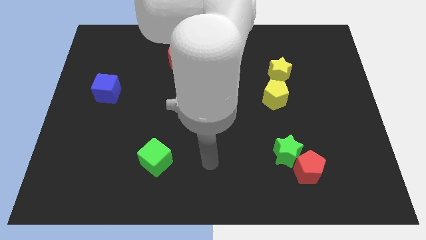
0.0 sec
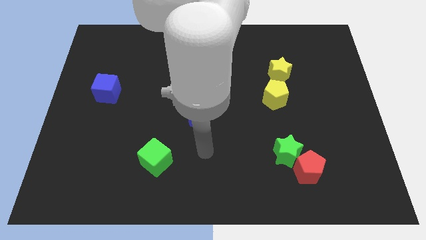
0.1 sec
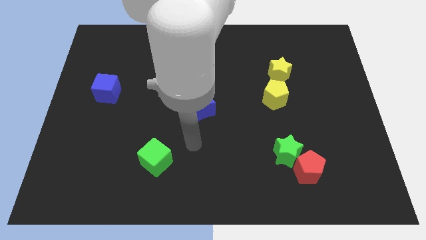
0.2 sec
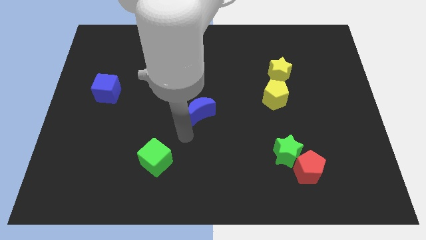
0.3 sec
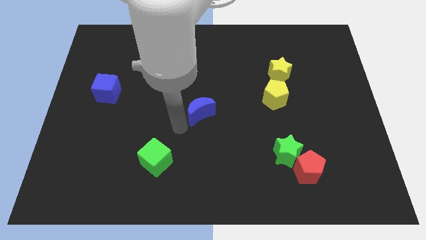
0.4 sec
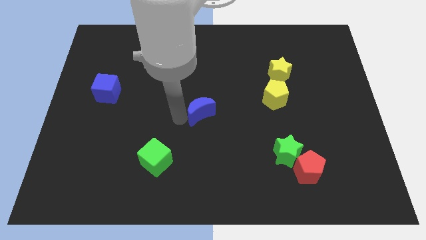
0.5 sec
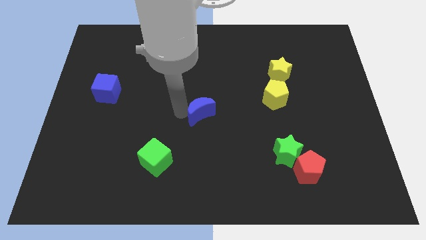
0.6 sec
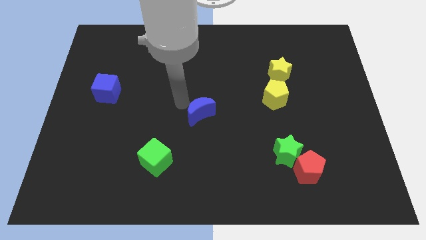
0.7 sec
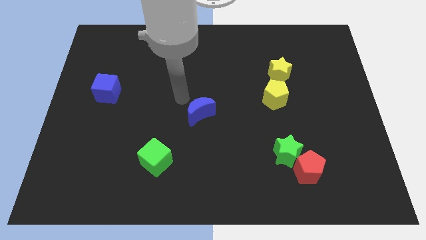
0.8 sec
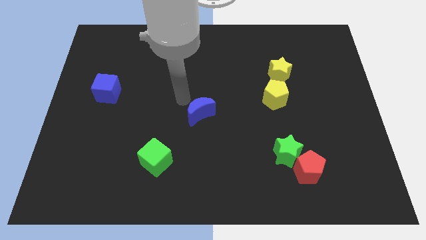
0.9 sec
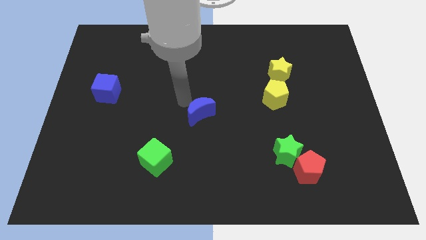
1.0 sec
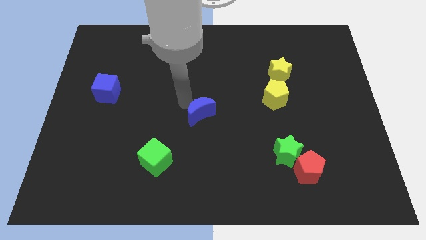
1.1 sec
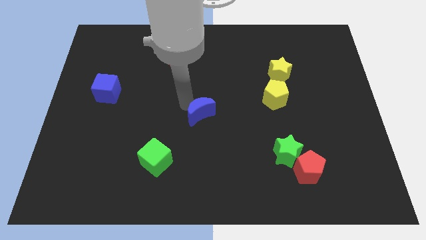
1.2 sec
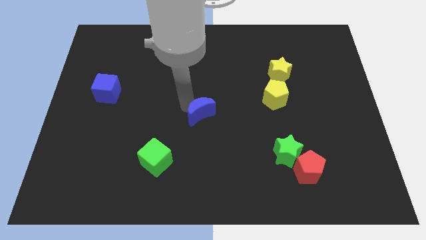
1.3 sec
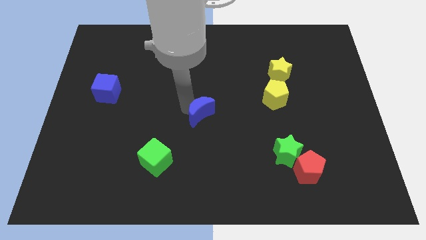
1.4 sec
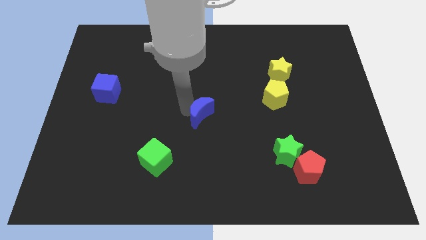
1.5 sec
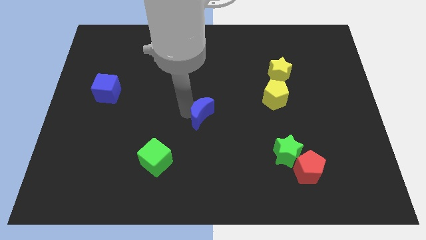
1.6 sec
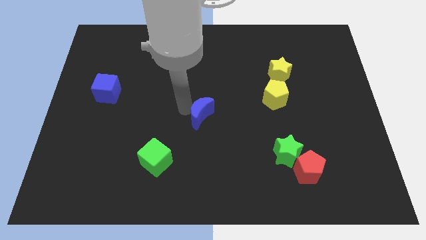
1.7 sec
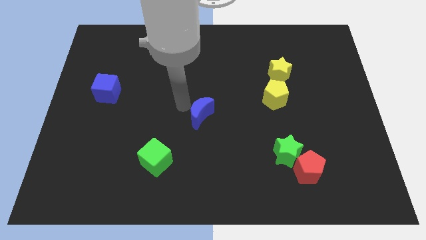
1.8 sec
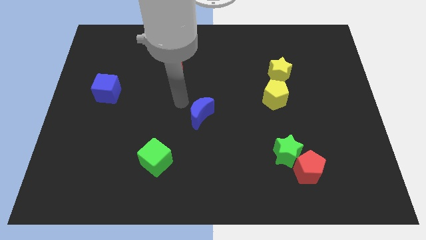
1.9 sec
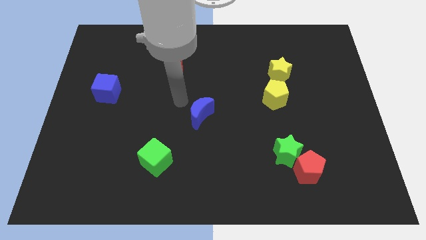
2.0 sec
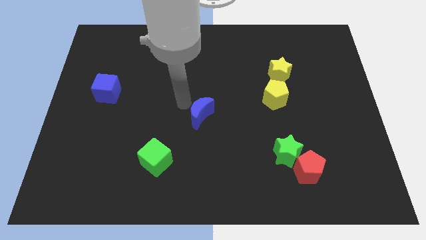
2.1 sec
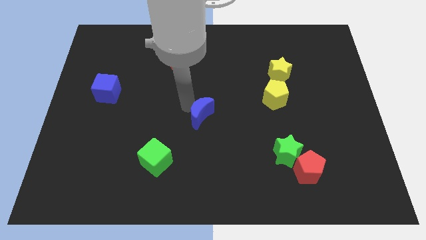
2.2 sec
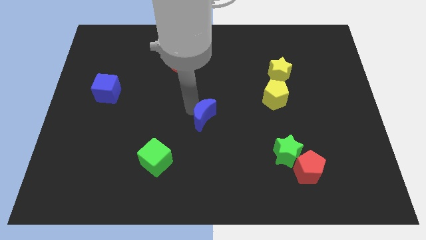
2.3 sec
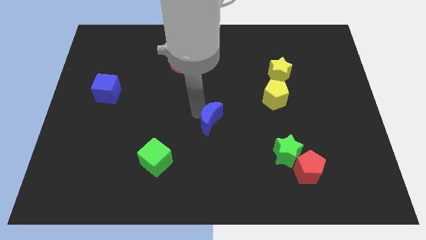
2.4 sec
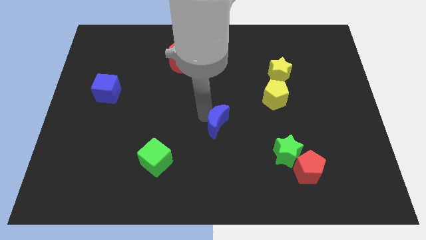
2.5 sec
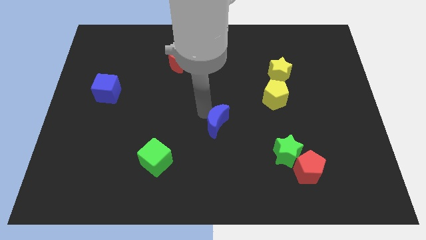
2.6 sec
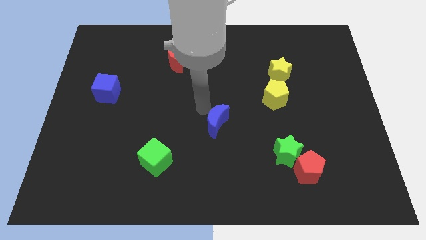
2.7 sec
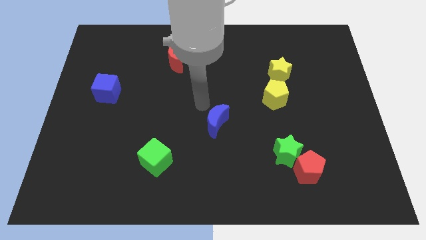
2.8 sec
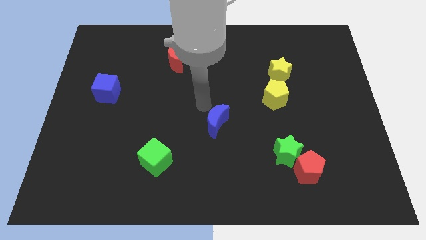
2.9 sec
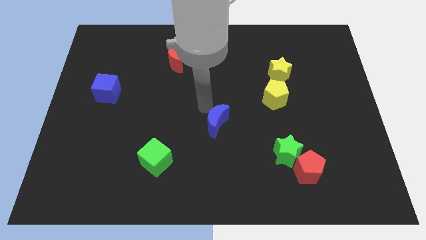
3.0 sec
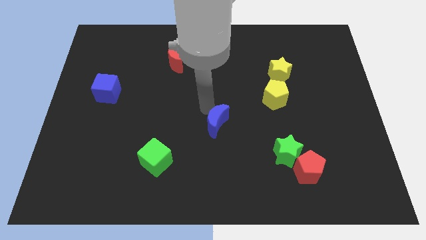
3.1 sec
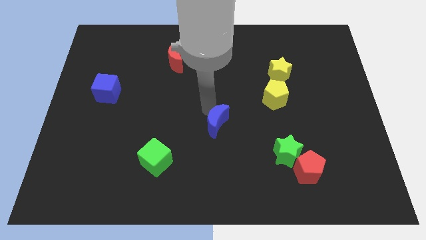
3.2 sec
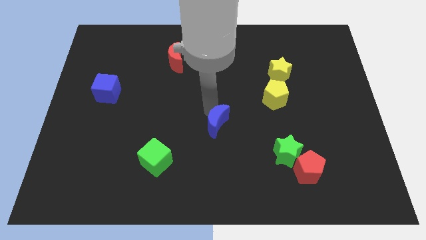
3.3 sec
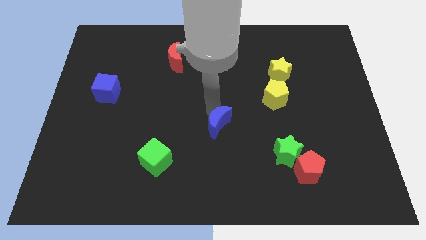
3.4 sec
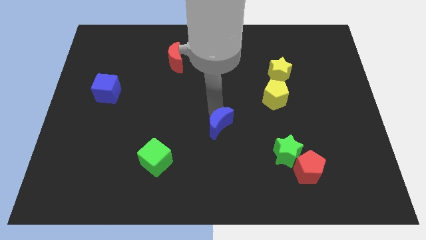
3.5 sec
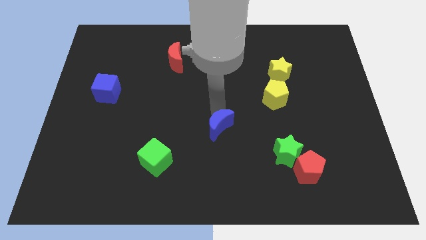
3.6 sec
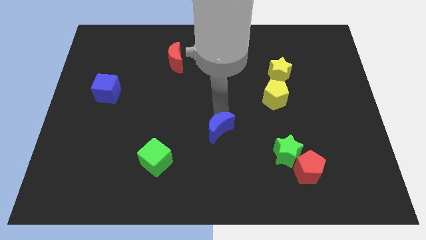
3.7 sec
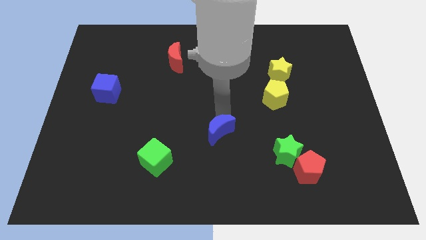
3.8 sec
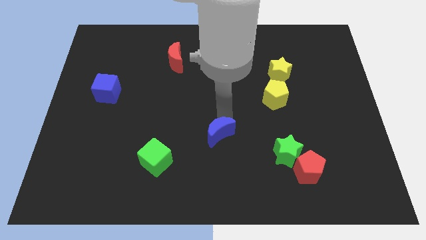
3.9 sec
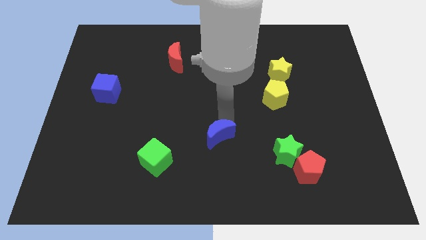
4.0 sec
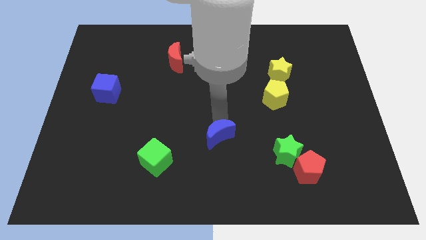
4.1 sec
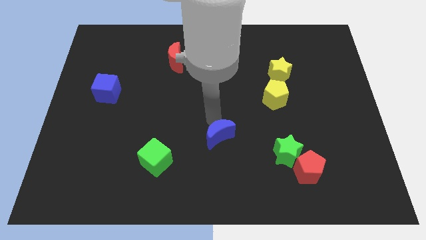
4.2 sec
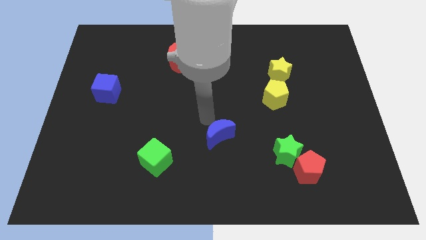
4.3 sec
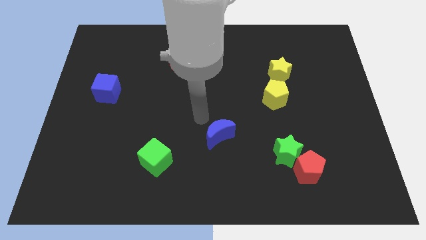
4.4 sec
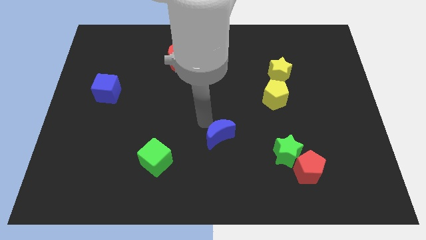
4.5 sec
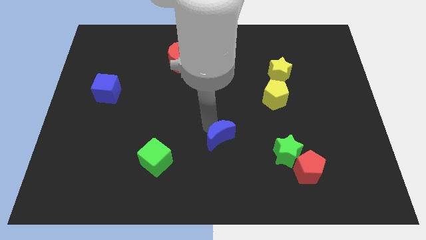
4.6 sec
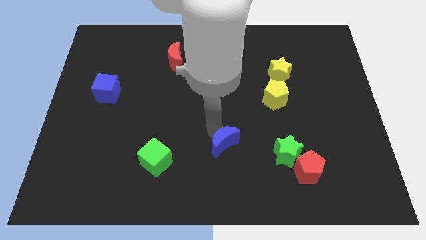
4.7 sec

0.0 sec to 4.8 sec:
move the blue moon to the left side of the green star

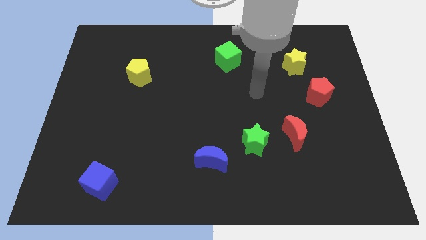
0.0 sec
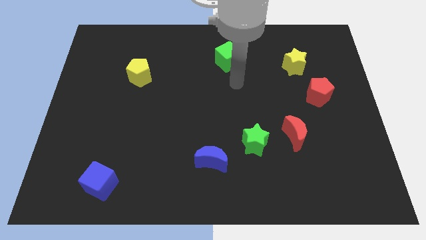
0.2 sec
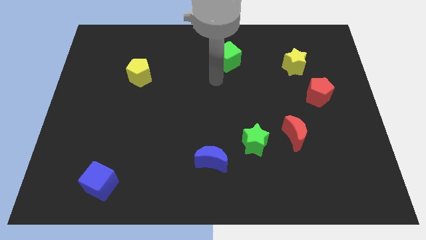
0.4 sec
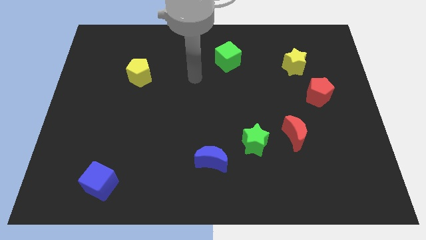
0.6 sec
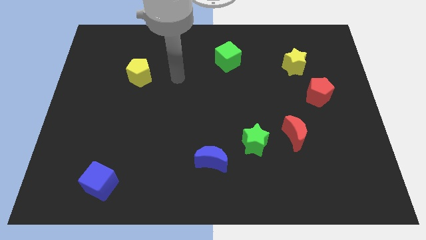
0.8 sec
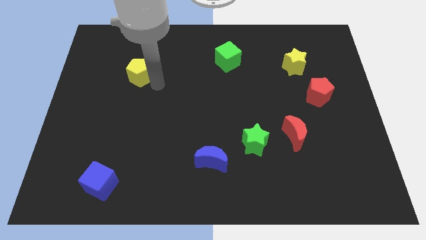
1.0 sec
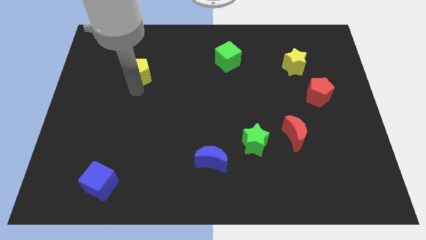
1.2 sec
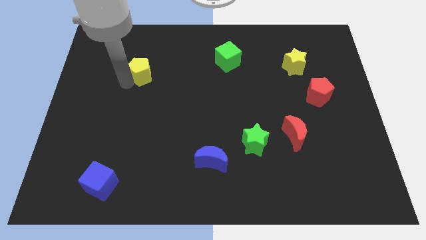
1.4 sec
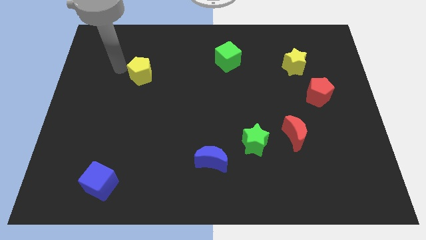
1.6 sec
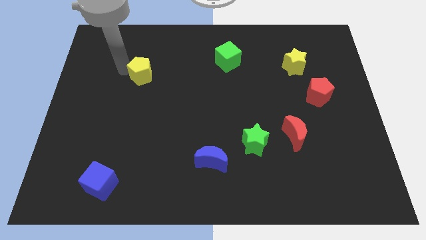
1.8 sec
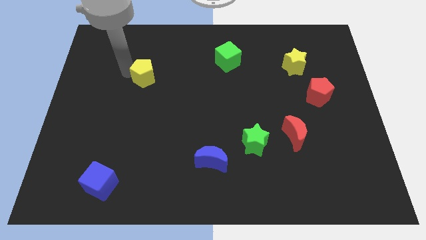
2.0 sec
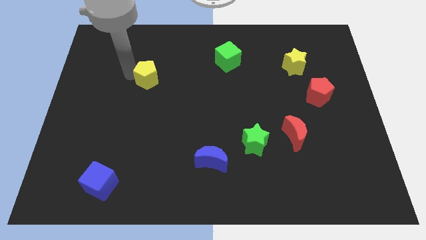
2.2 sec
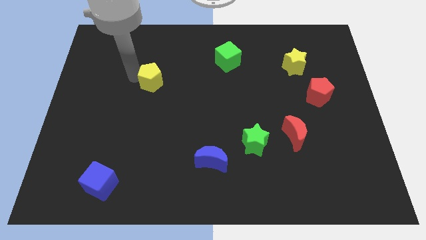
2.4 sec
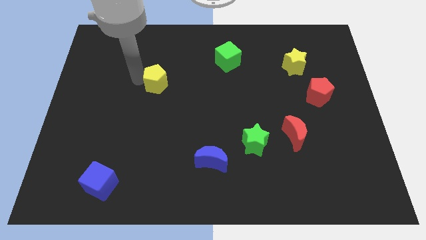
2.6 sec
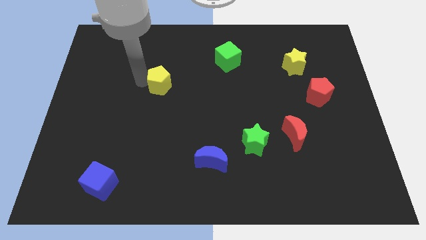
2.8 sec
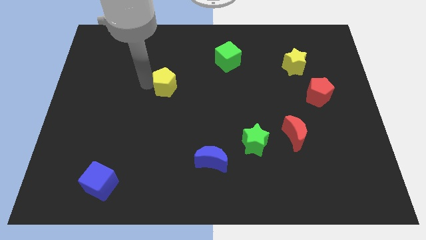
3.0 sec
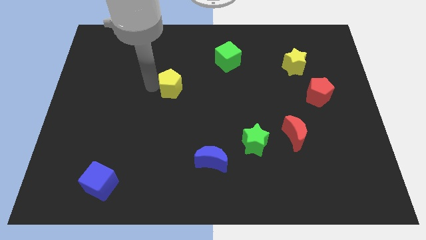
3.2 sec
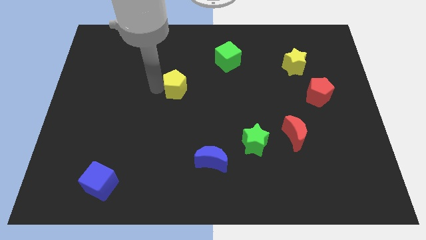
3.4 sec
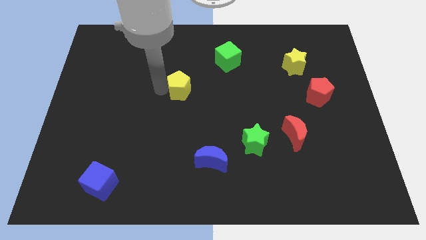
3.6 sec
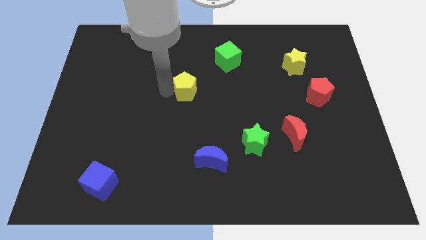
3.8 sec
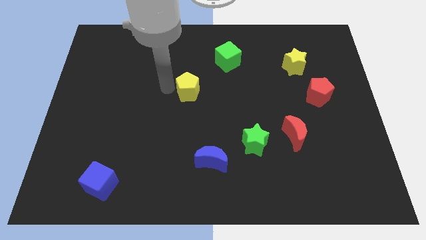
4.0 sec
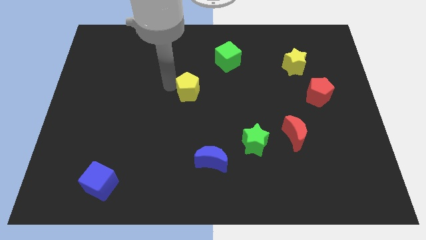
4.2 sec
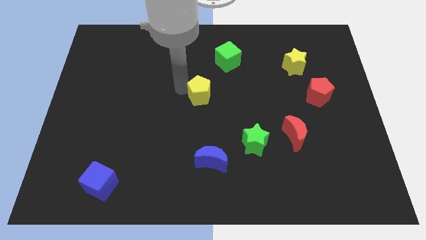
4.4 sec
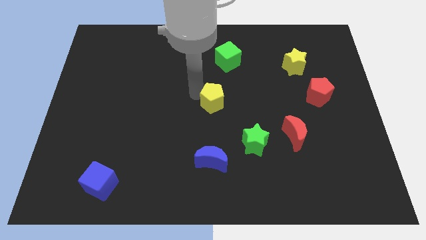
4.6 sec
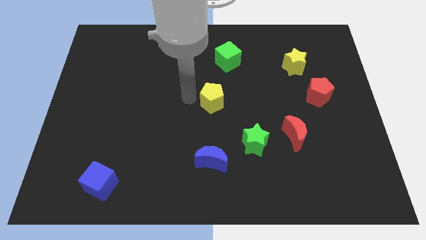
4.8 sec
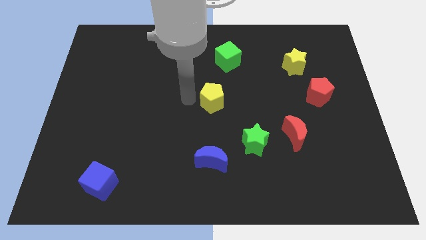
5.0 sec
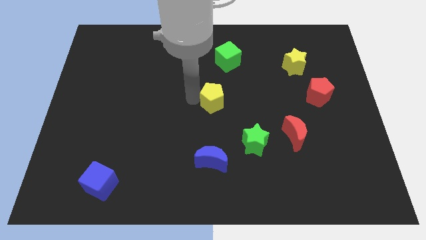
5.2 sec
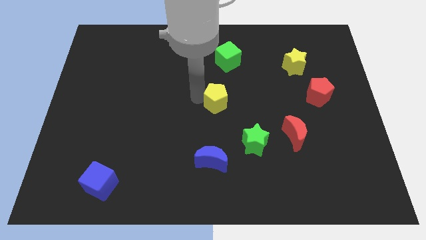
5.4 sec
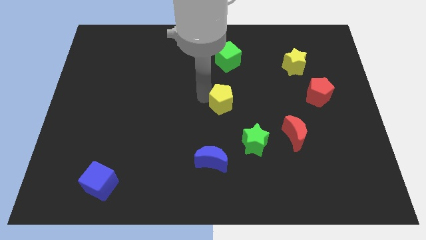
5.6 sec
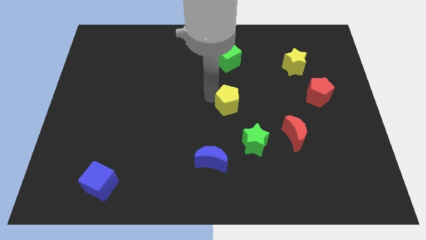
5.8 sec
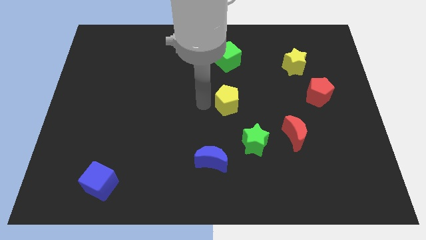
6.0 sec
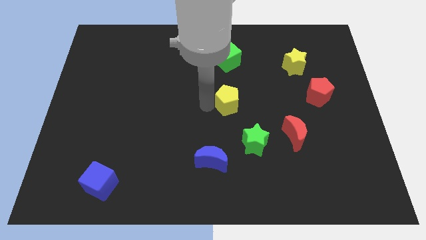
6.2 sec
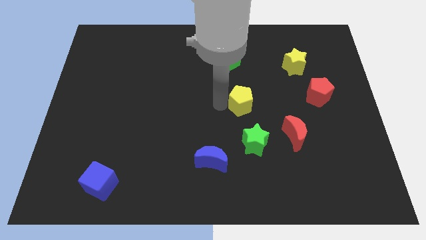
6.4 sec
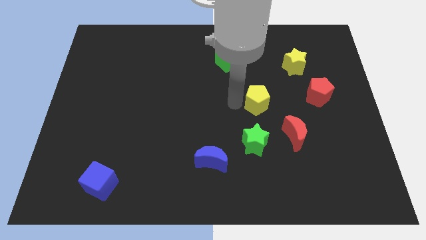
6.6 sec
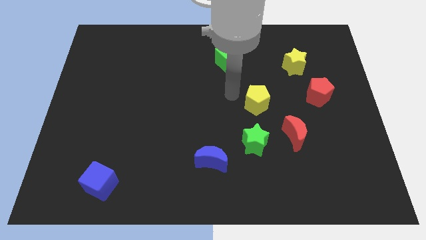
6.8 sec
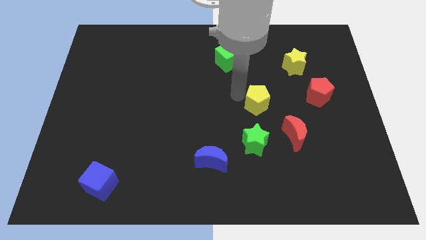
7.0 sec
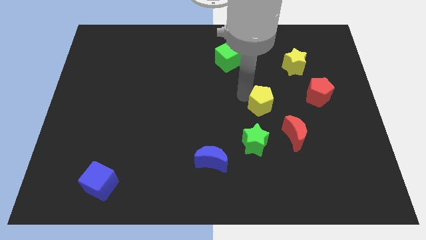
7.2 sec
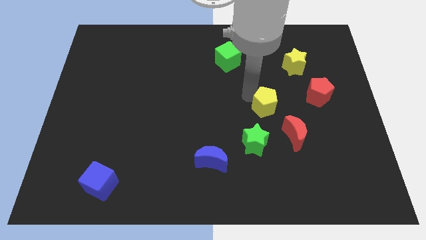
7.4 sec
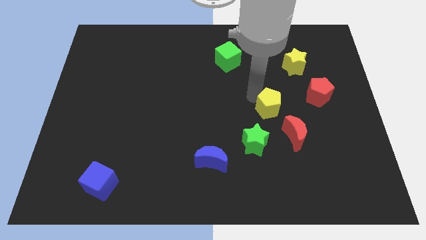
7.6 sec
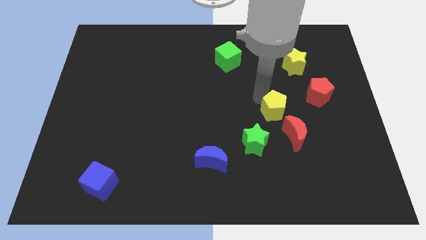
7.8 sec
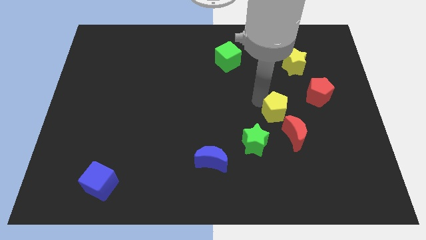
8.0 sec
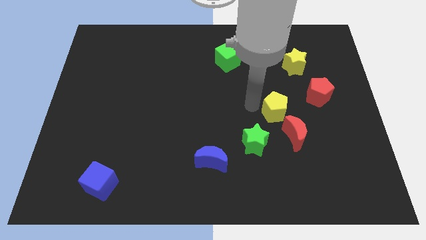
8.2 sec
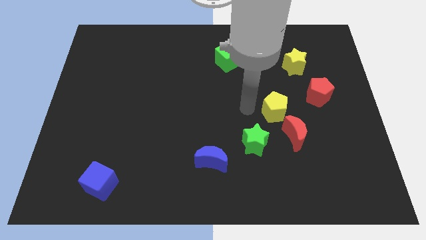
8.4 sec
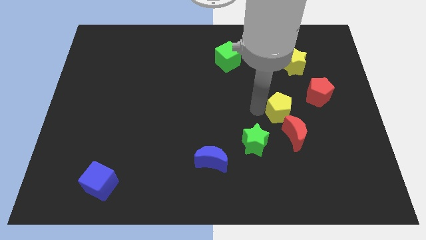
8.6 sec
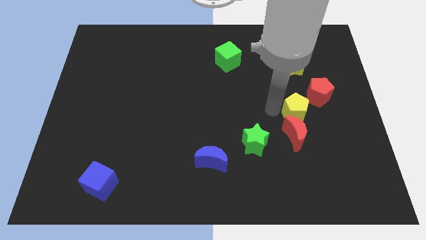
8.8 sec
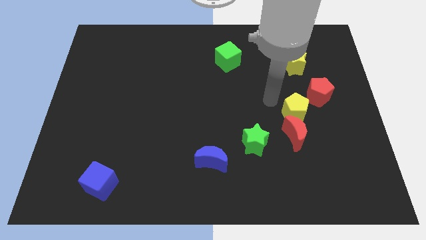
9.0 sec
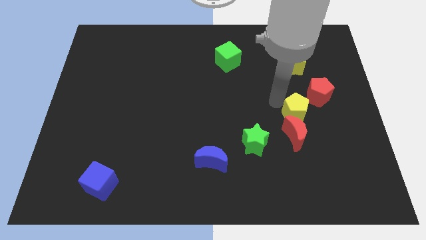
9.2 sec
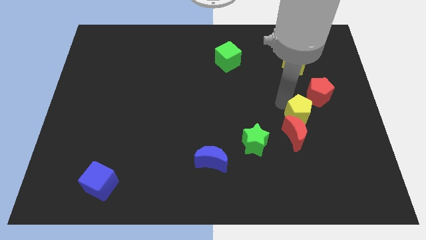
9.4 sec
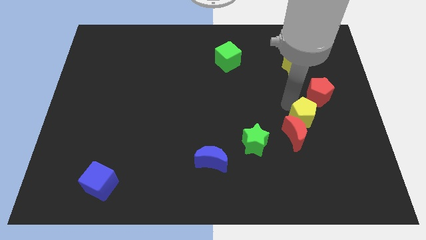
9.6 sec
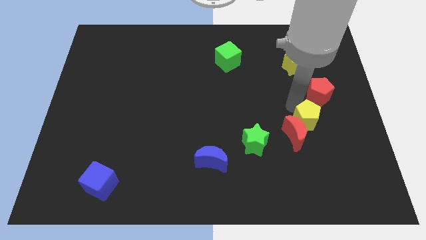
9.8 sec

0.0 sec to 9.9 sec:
put the yellow pentagon to the right side of the red moon
